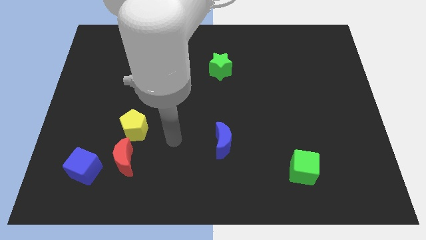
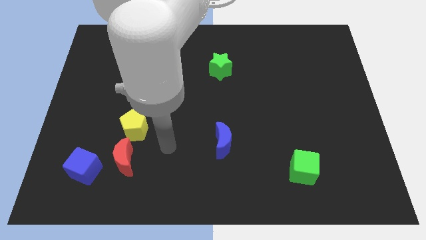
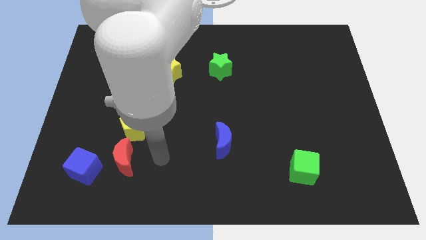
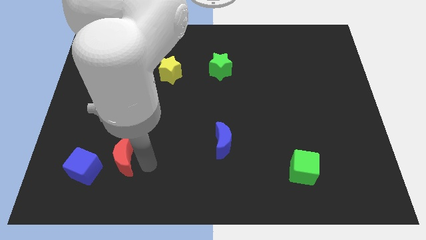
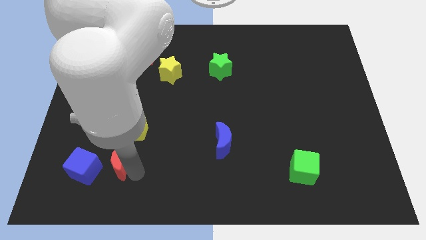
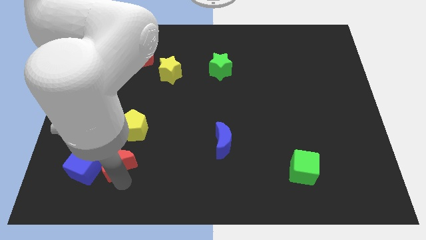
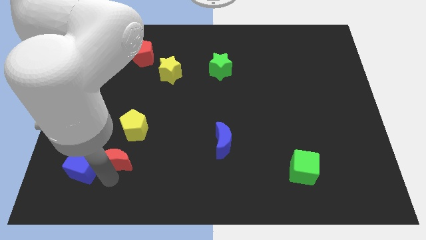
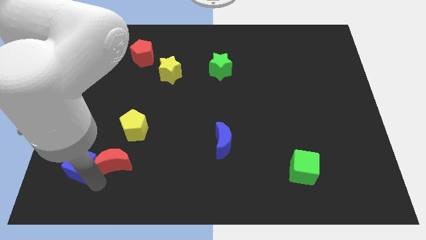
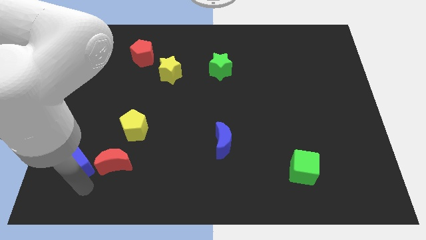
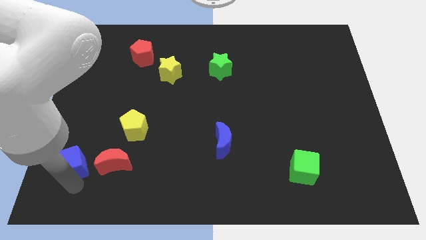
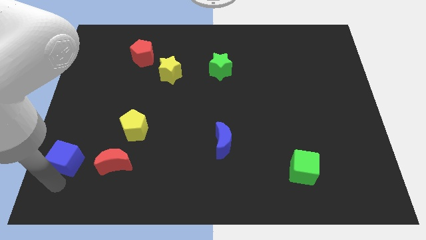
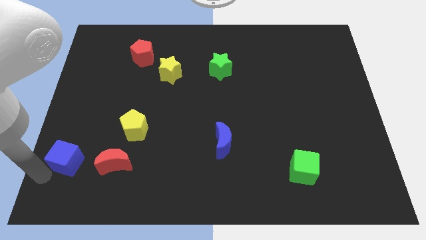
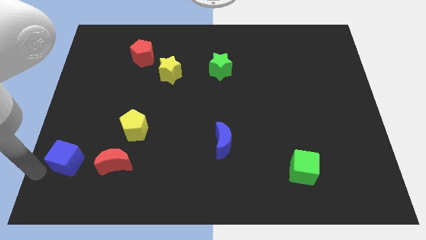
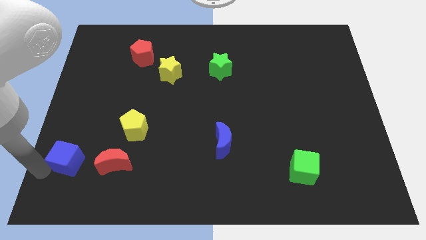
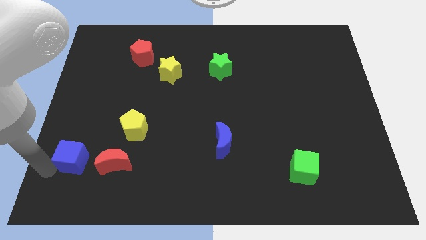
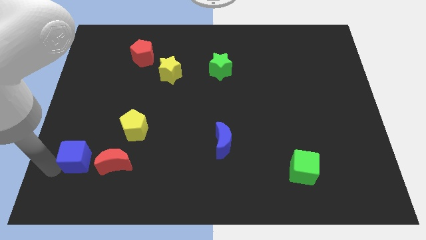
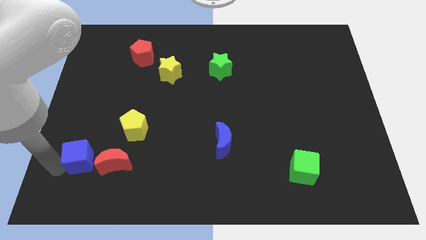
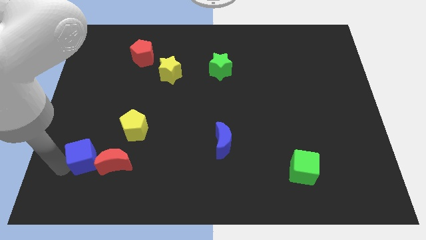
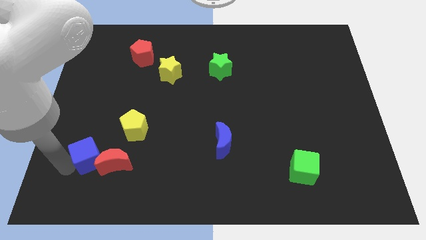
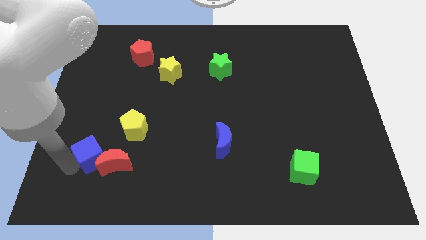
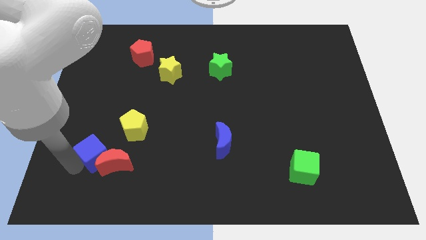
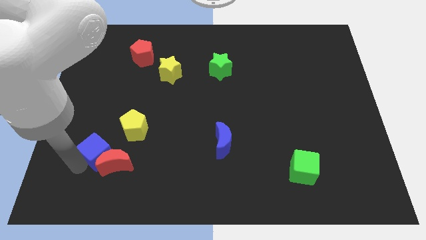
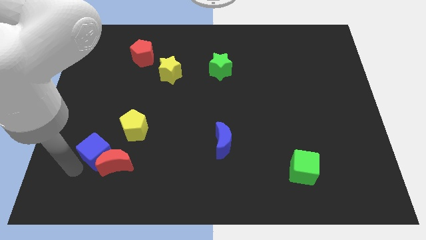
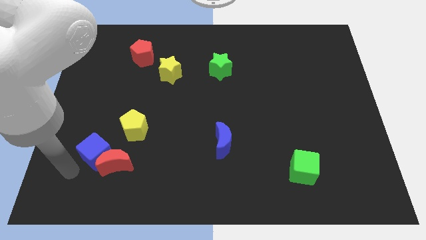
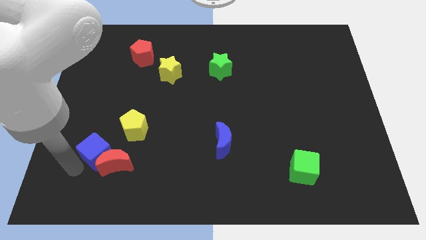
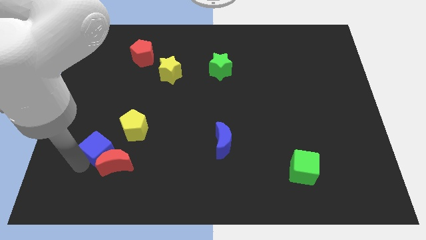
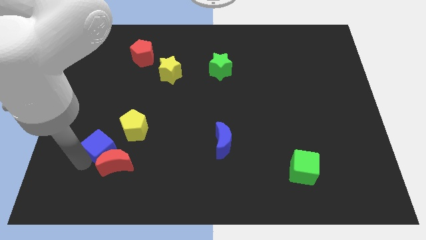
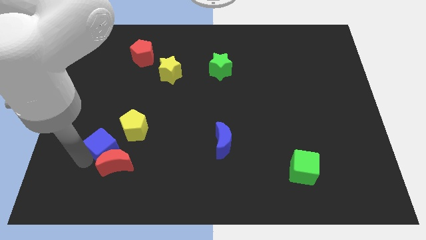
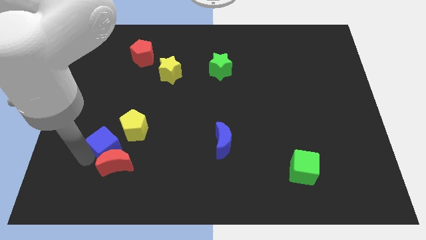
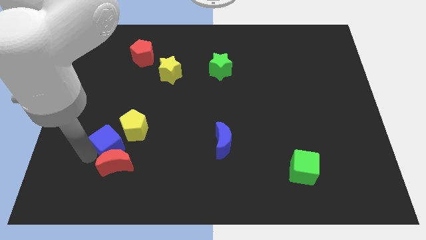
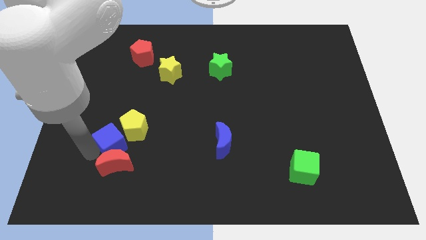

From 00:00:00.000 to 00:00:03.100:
slide the blue cube towards the yellow pentagon

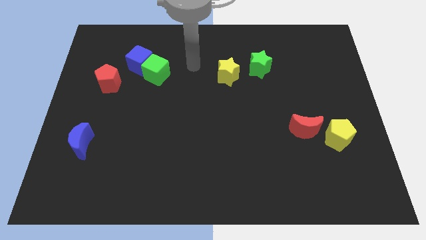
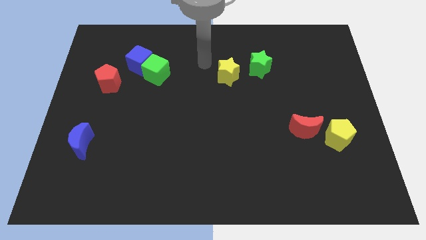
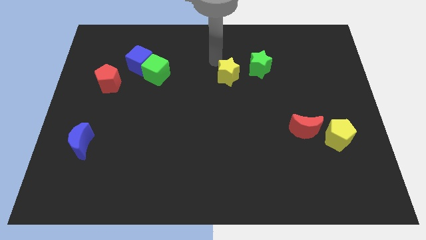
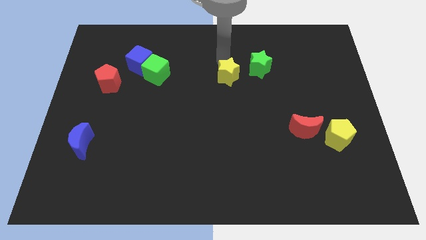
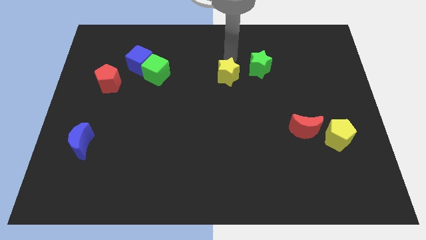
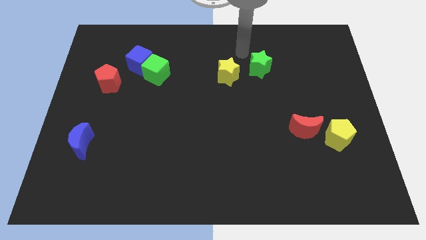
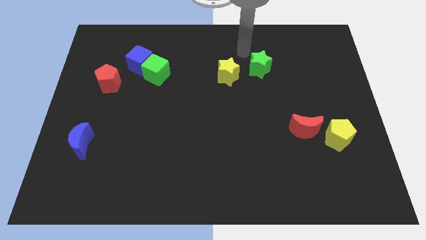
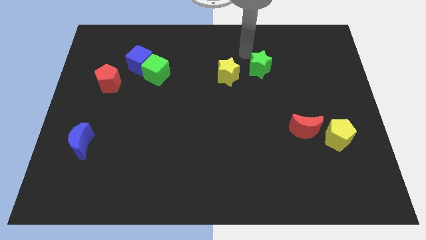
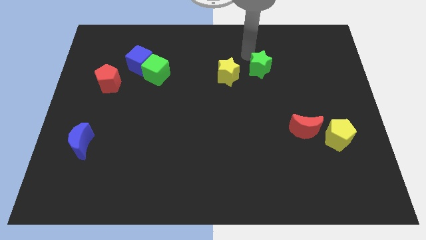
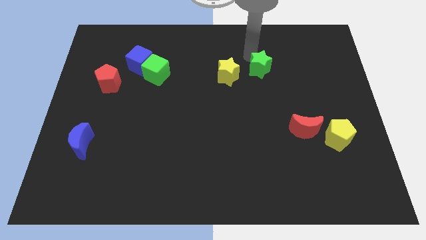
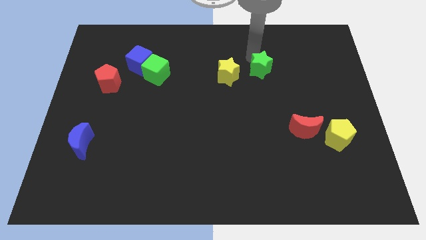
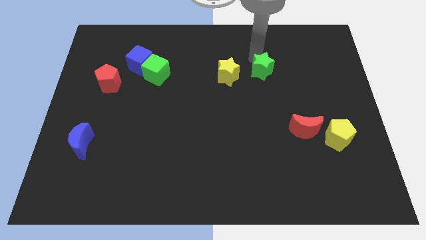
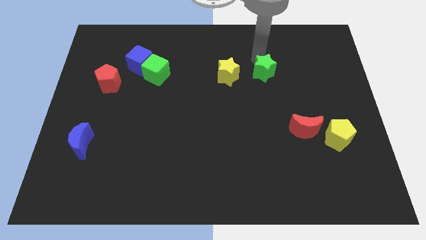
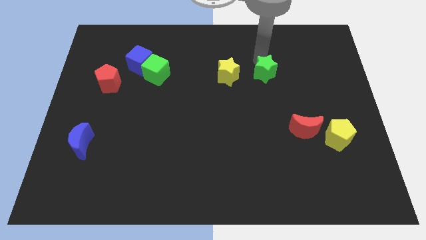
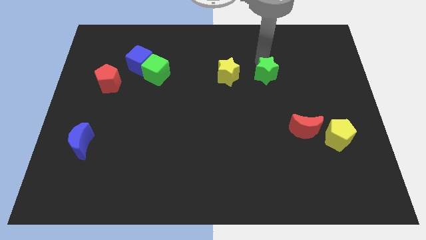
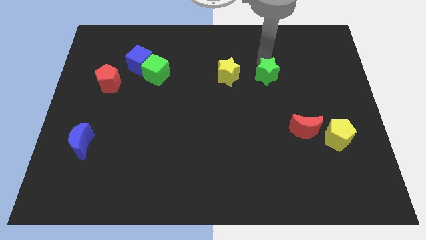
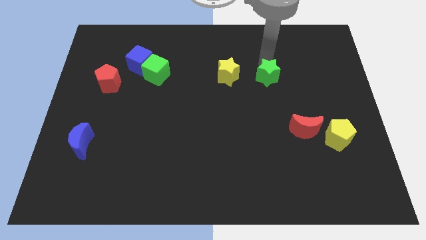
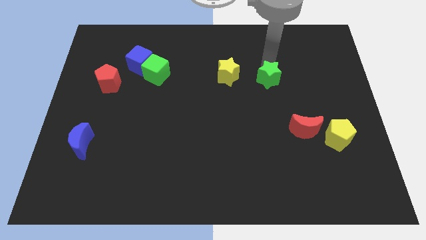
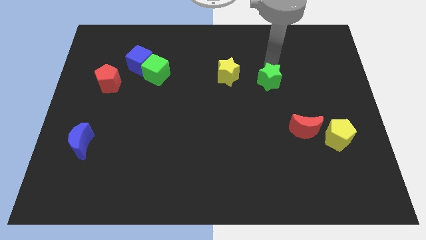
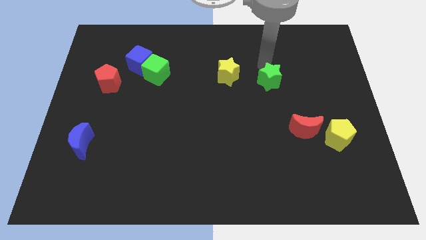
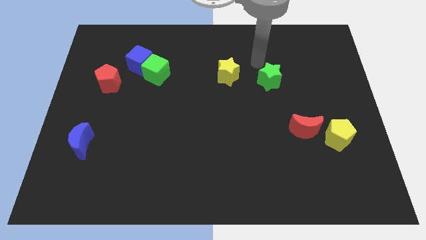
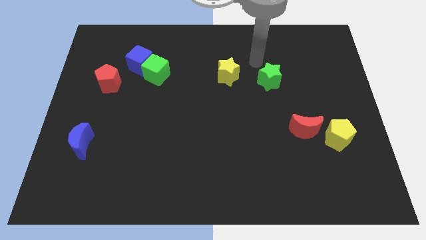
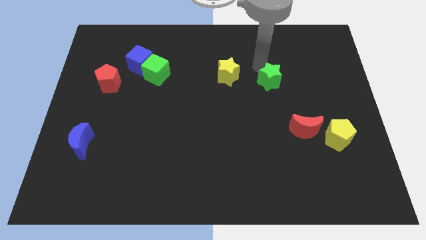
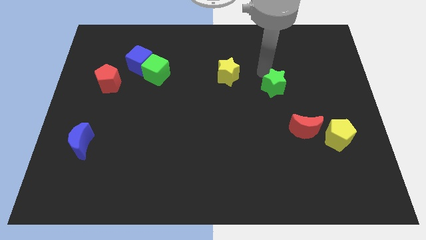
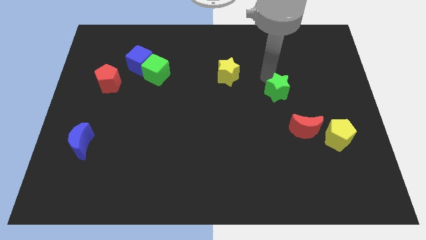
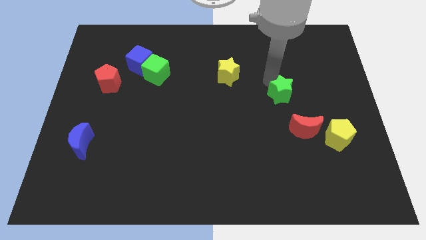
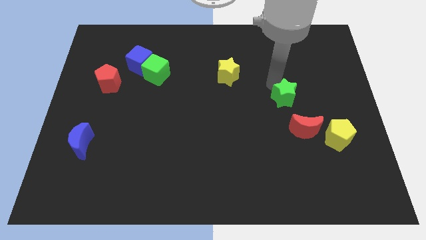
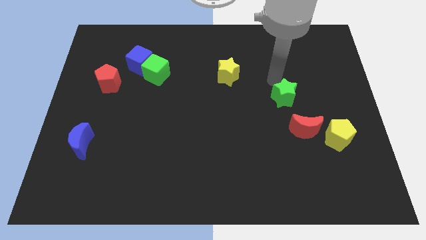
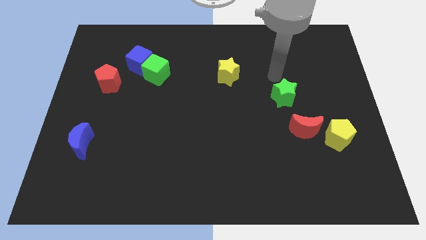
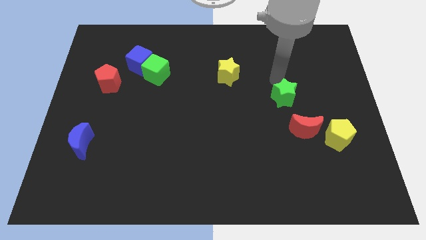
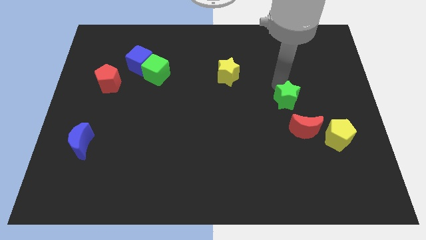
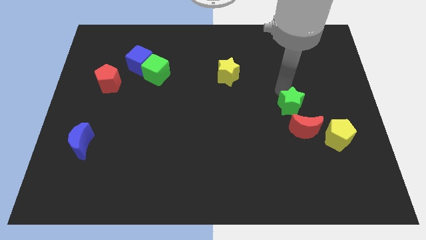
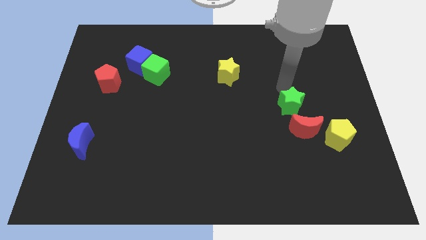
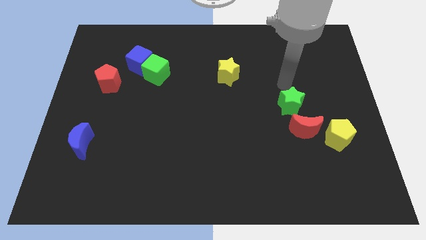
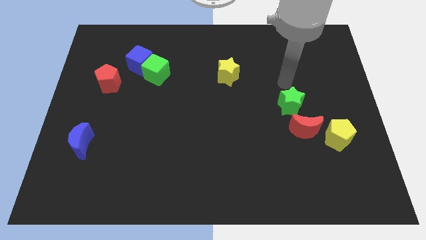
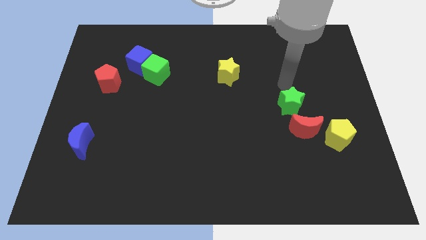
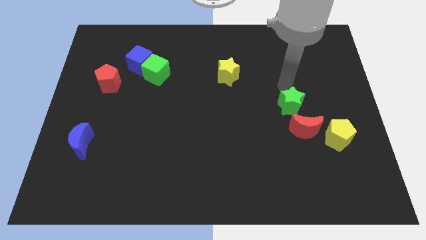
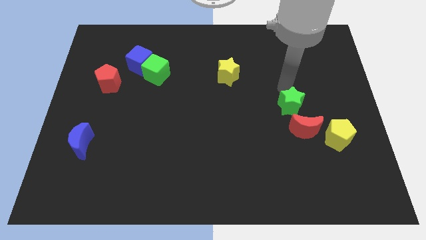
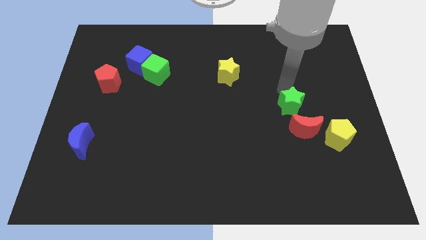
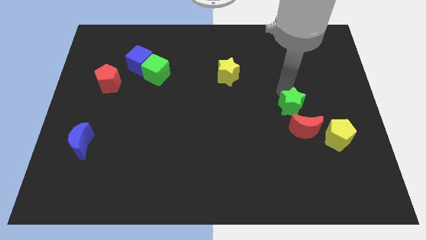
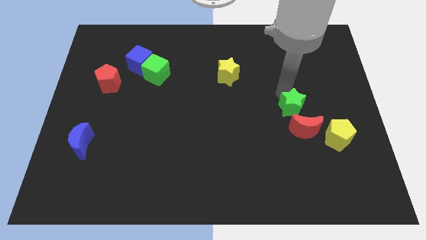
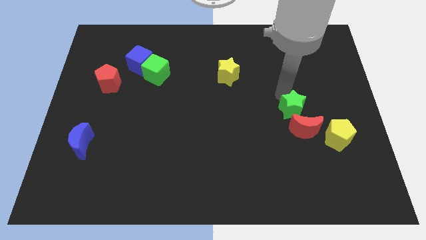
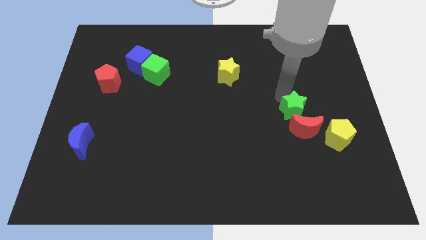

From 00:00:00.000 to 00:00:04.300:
push the green star towards the red moon

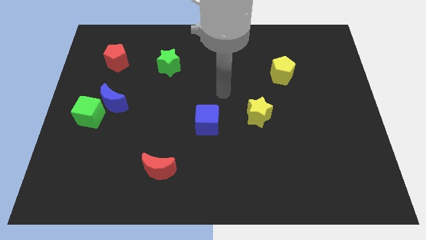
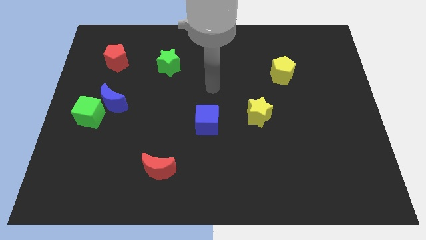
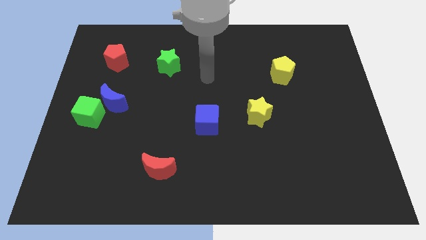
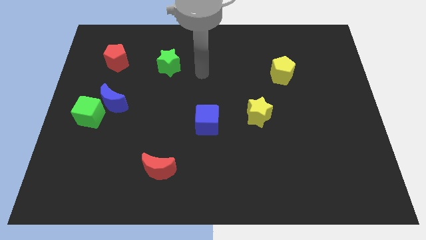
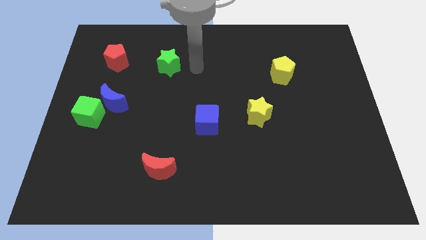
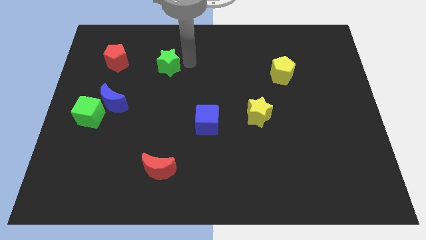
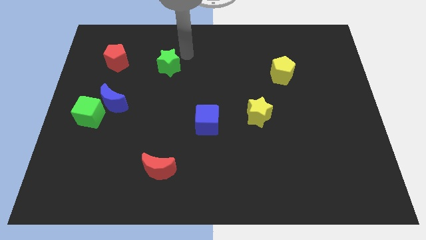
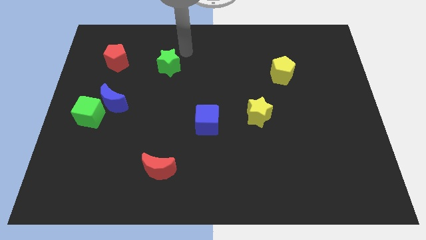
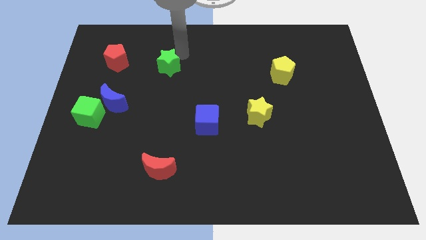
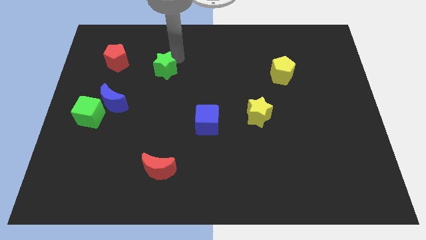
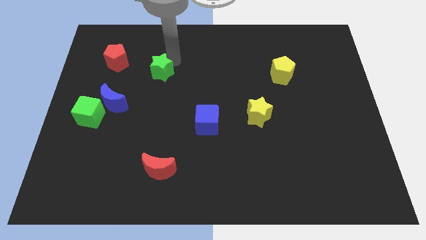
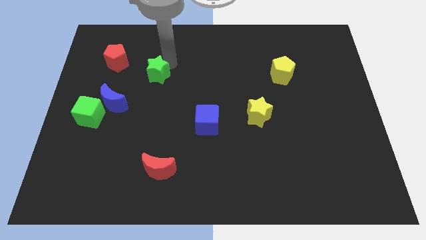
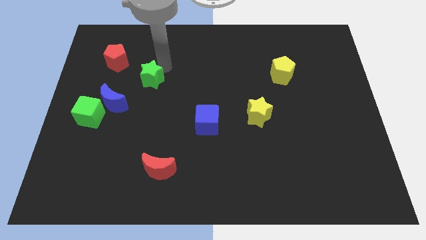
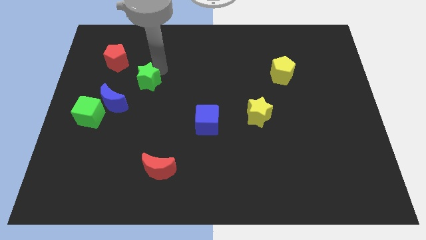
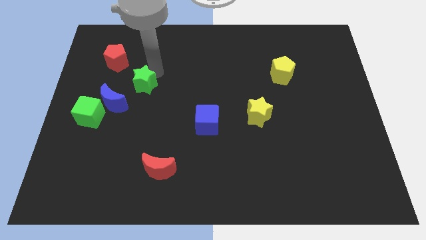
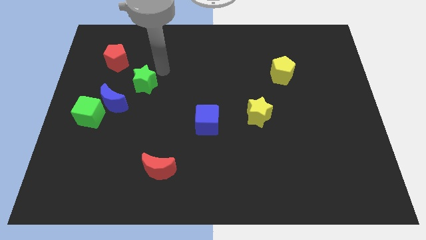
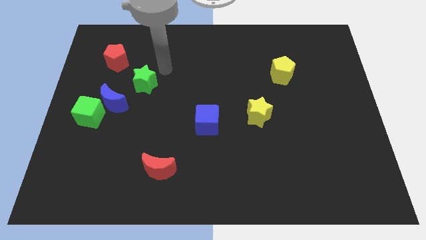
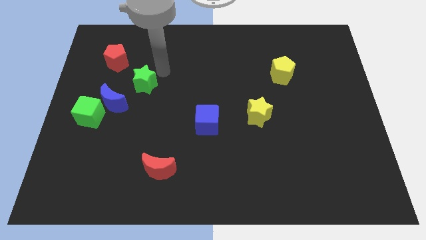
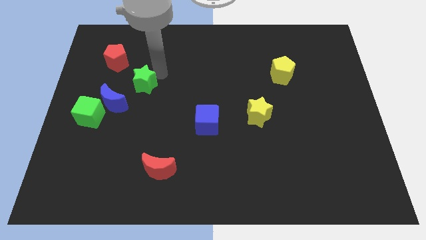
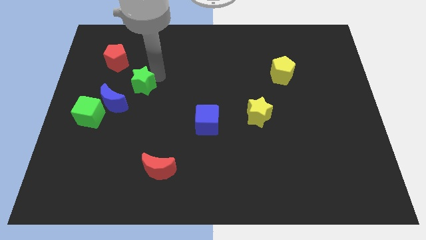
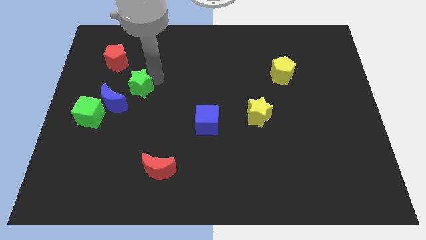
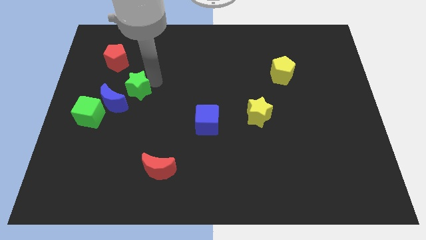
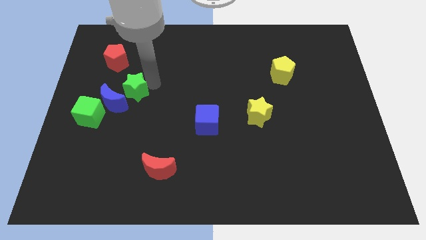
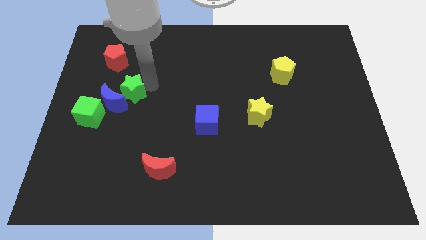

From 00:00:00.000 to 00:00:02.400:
move the green star next to the blue moon
